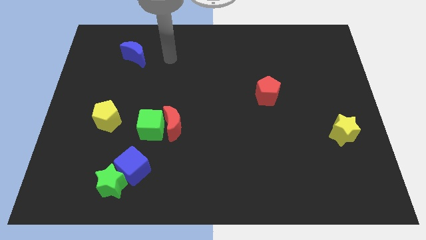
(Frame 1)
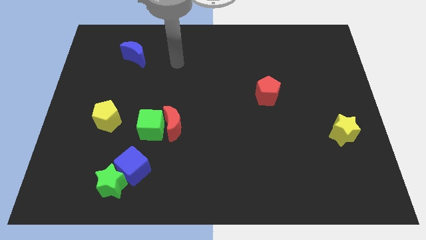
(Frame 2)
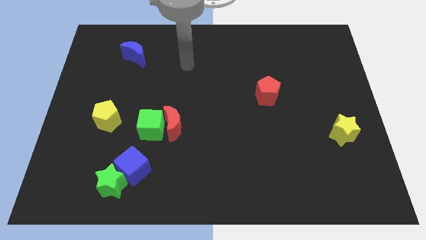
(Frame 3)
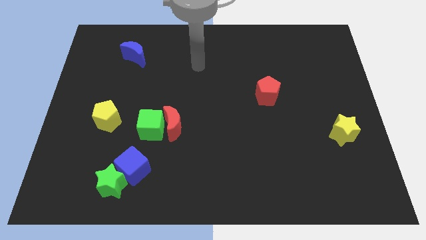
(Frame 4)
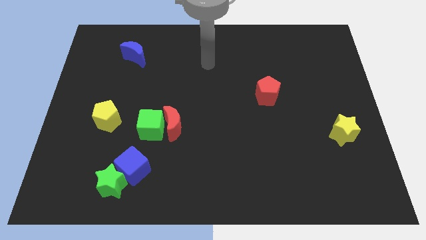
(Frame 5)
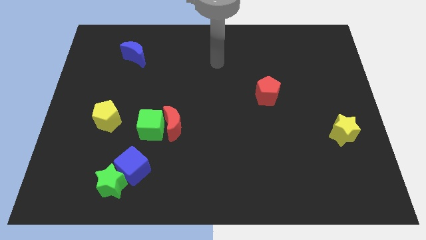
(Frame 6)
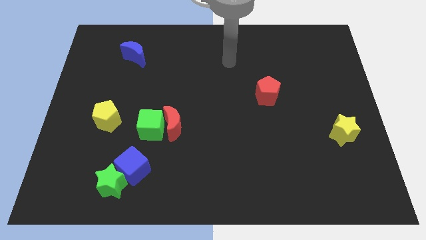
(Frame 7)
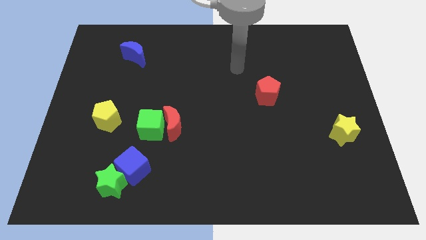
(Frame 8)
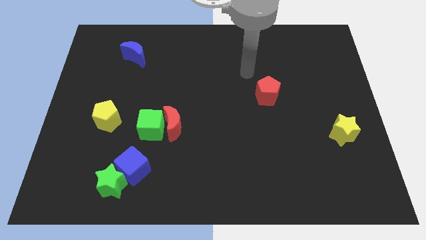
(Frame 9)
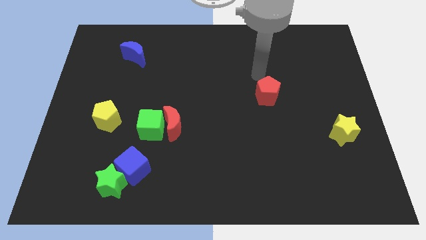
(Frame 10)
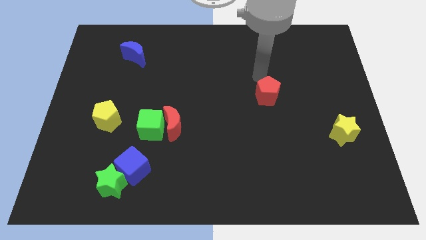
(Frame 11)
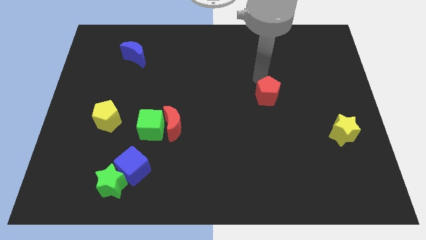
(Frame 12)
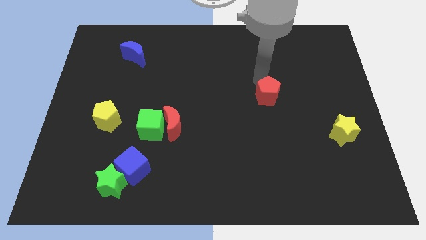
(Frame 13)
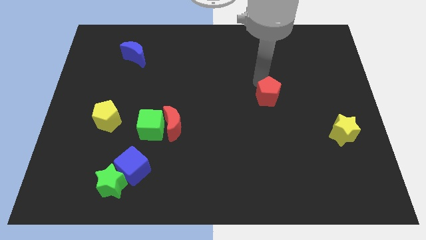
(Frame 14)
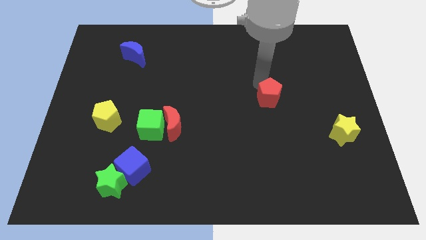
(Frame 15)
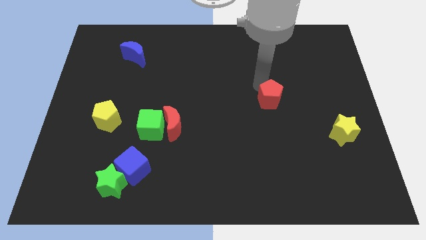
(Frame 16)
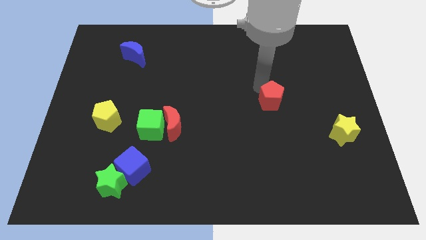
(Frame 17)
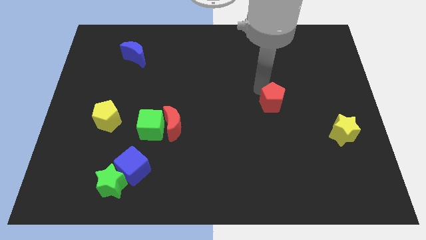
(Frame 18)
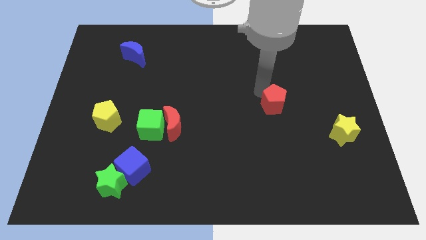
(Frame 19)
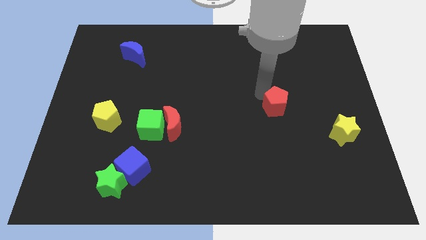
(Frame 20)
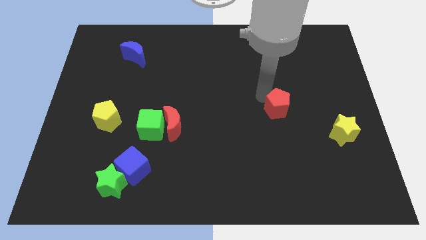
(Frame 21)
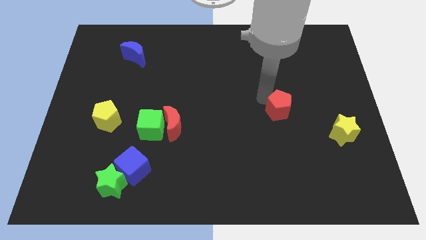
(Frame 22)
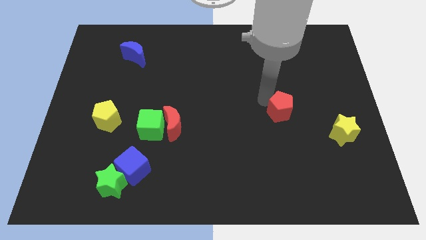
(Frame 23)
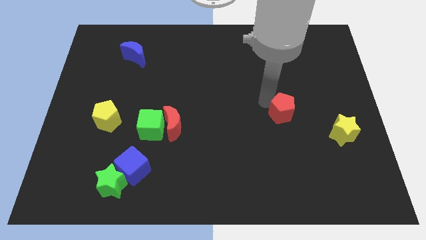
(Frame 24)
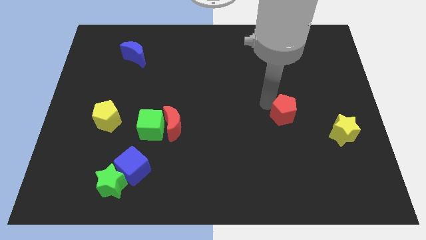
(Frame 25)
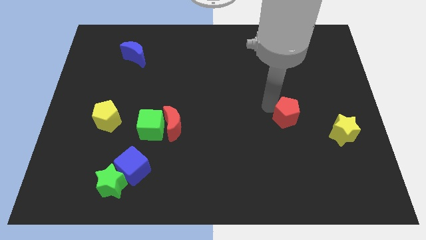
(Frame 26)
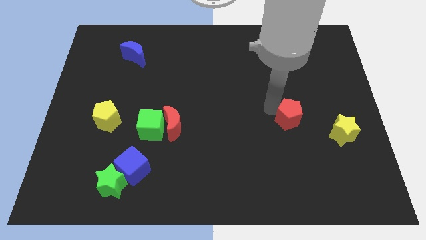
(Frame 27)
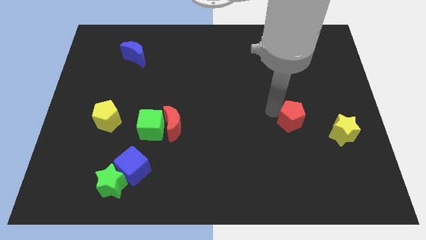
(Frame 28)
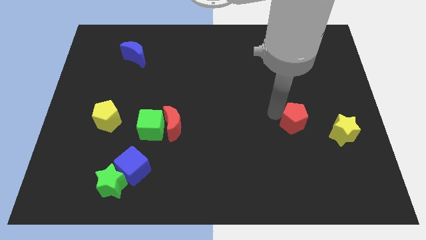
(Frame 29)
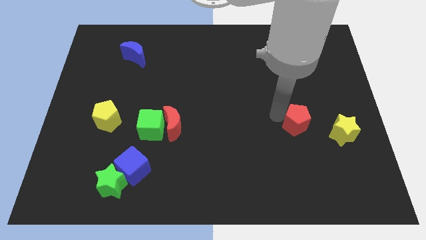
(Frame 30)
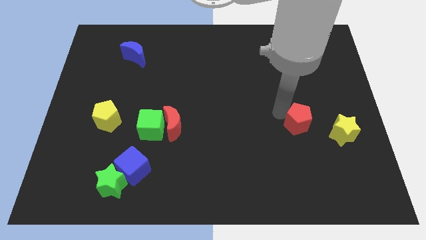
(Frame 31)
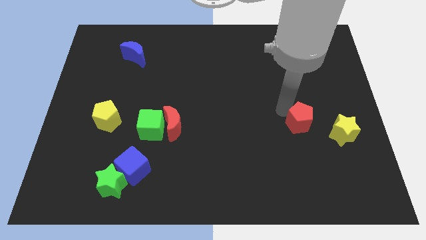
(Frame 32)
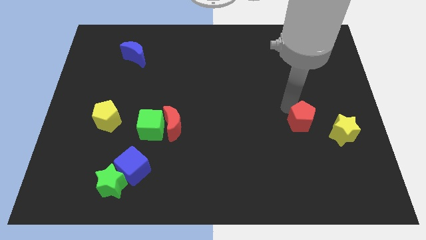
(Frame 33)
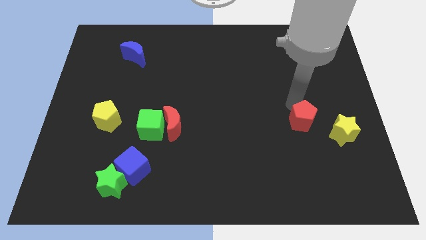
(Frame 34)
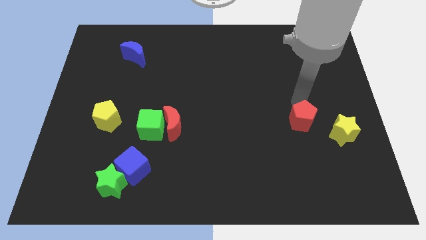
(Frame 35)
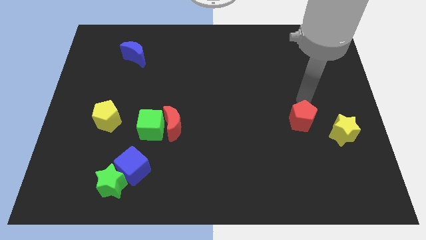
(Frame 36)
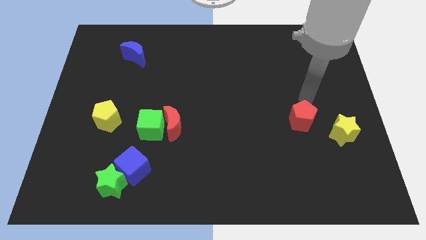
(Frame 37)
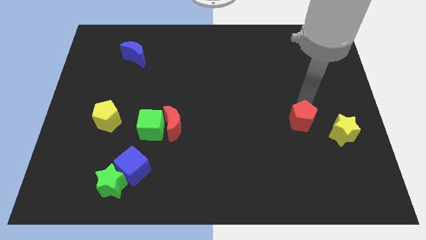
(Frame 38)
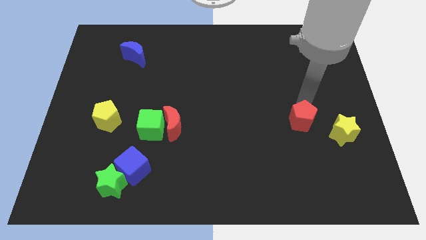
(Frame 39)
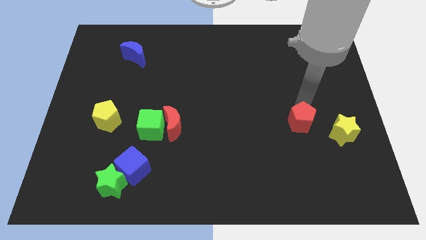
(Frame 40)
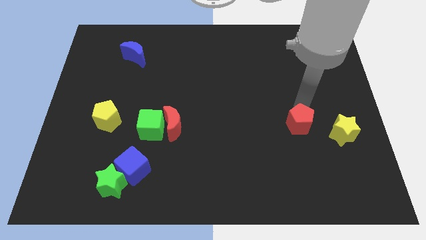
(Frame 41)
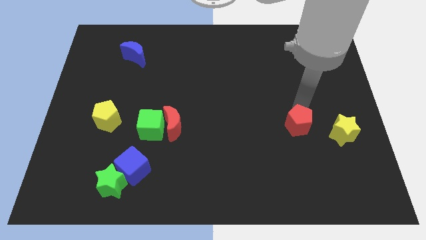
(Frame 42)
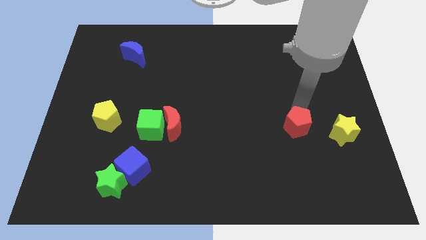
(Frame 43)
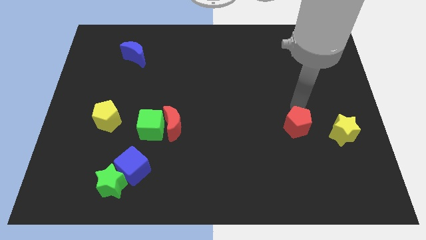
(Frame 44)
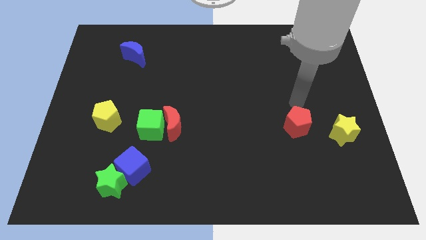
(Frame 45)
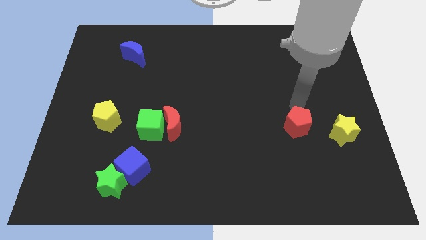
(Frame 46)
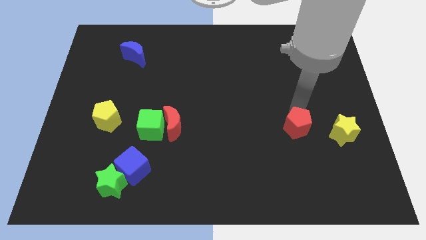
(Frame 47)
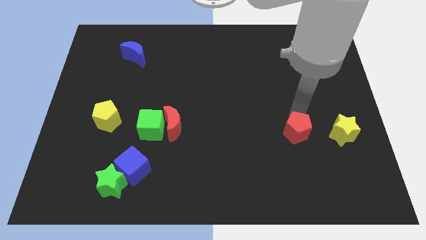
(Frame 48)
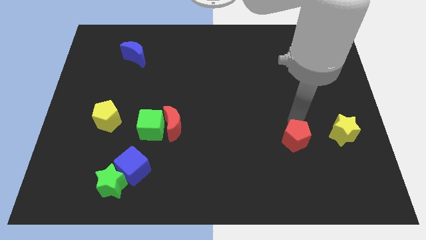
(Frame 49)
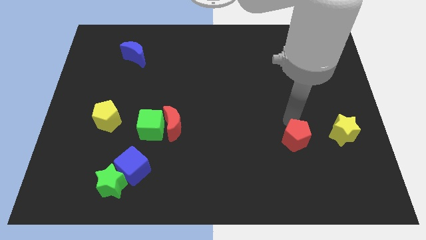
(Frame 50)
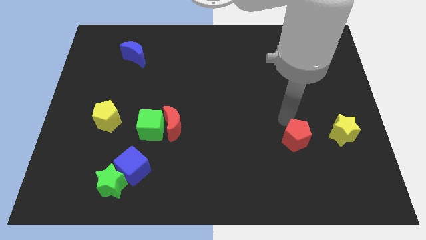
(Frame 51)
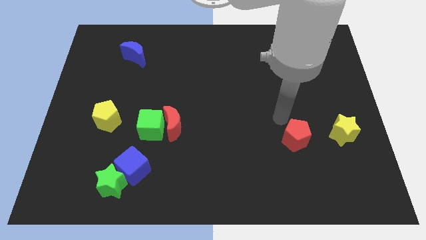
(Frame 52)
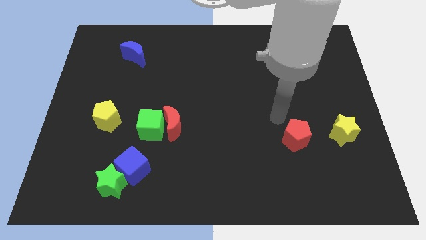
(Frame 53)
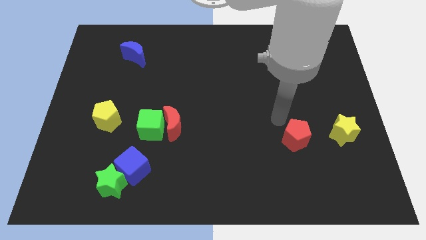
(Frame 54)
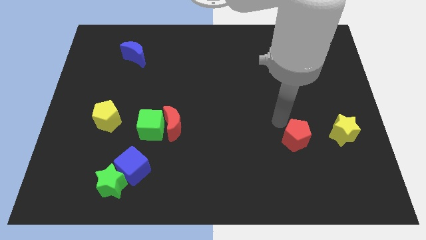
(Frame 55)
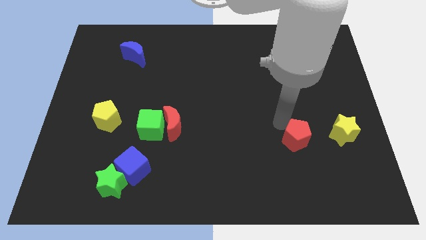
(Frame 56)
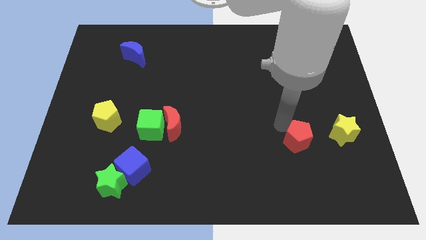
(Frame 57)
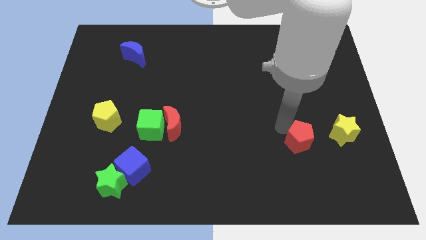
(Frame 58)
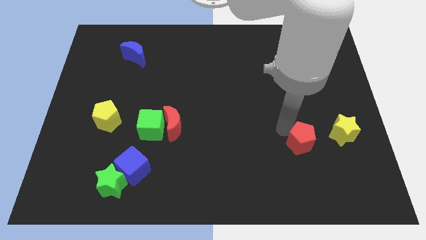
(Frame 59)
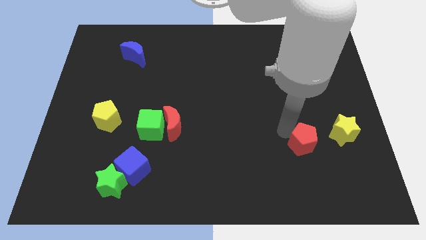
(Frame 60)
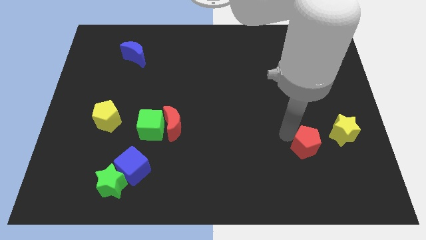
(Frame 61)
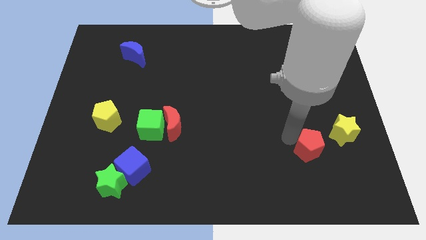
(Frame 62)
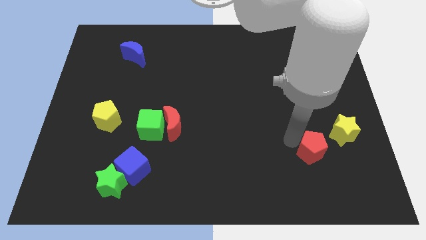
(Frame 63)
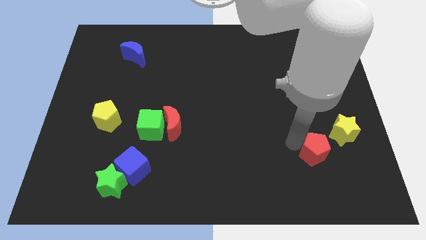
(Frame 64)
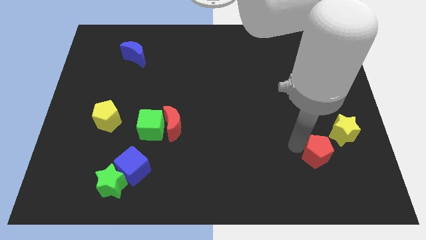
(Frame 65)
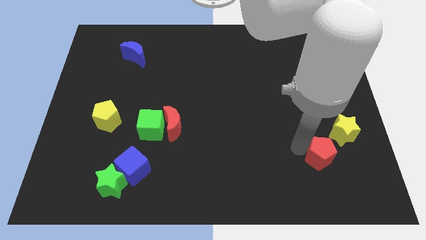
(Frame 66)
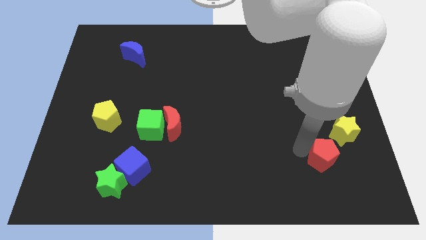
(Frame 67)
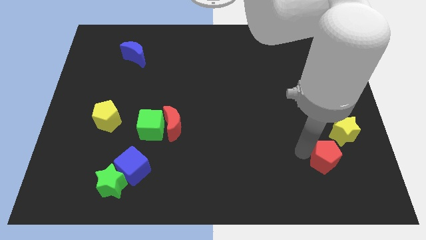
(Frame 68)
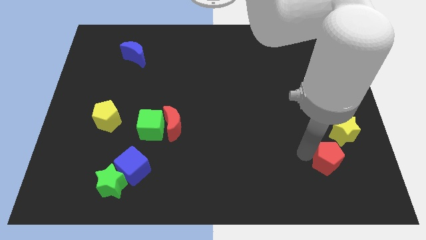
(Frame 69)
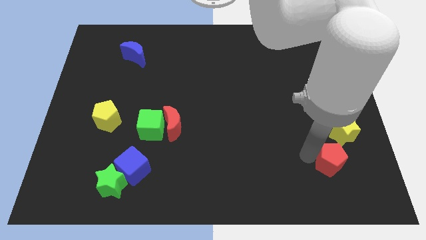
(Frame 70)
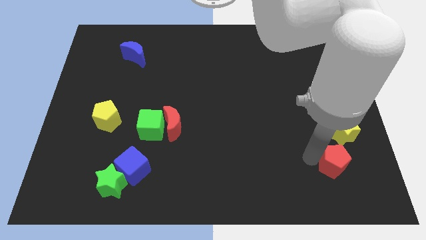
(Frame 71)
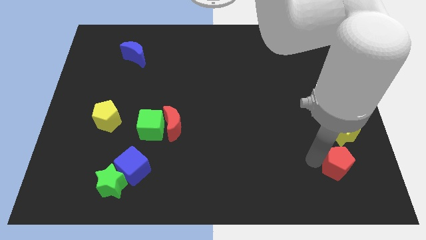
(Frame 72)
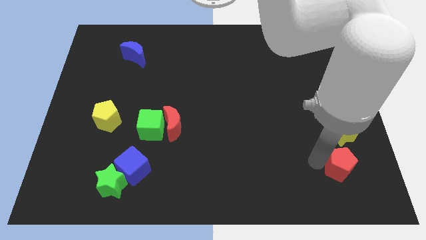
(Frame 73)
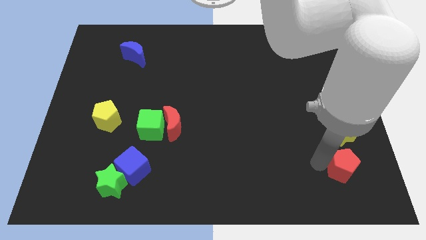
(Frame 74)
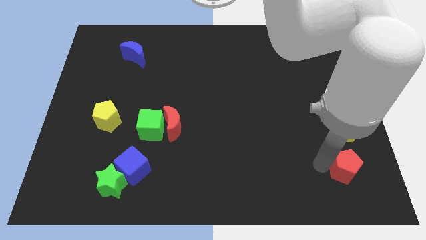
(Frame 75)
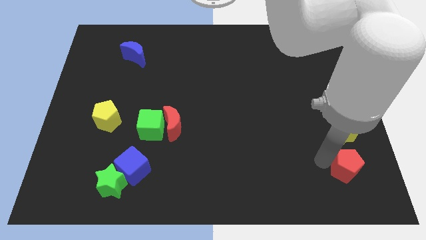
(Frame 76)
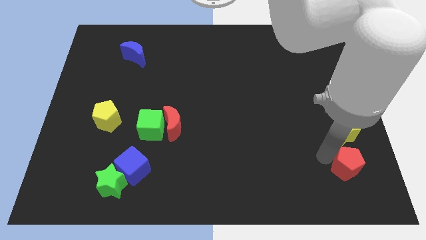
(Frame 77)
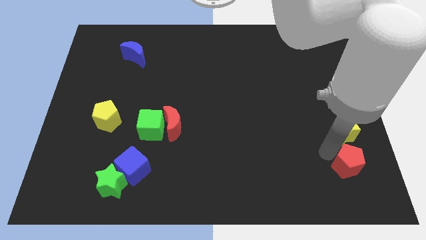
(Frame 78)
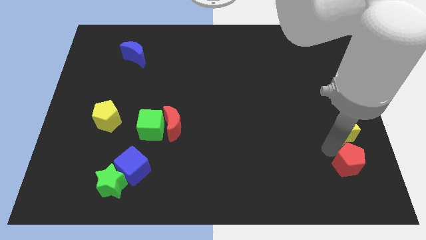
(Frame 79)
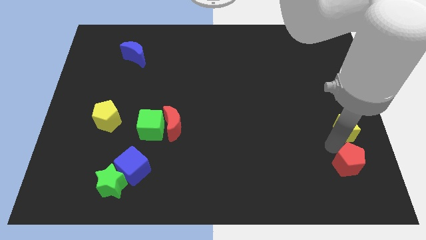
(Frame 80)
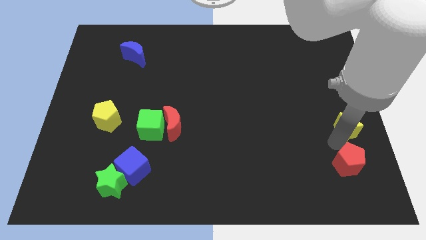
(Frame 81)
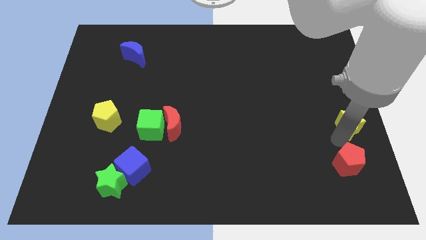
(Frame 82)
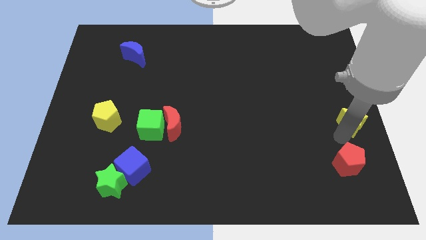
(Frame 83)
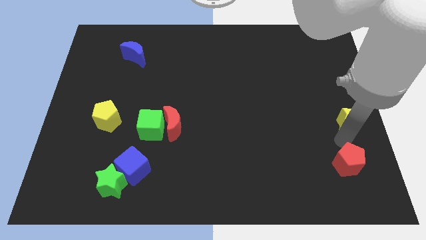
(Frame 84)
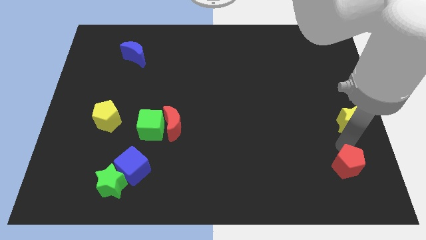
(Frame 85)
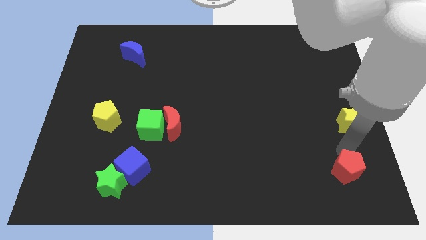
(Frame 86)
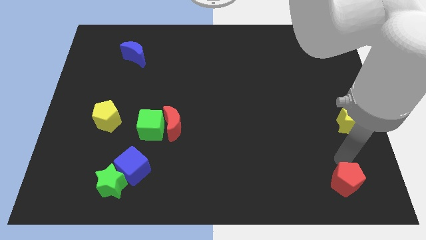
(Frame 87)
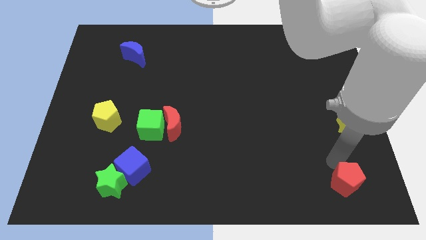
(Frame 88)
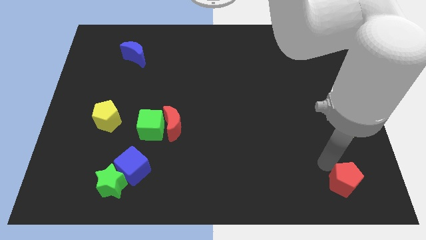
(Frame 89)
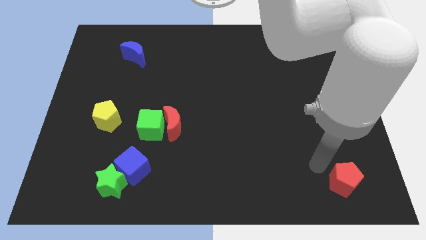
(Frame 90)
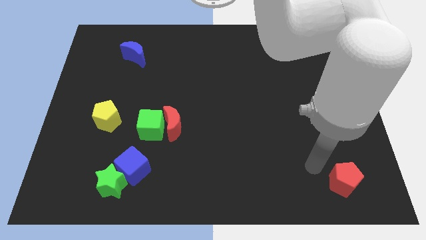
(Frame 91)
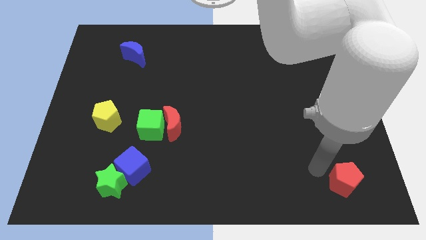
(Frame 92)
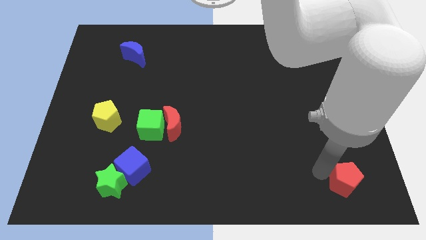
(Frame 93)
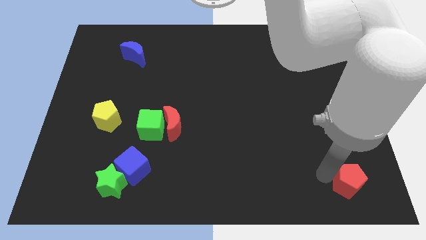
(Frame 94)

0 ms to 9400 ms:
push the red pentagon to the bottom right of the board
